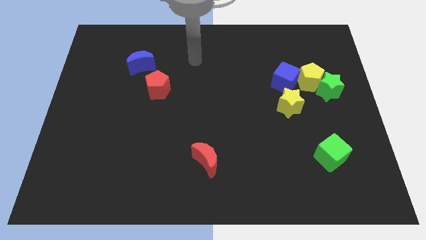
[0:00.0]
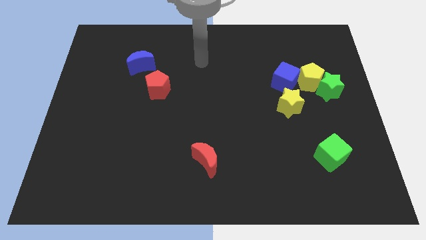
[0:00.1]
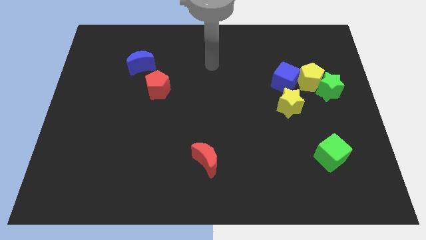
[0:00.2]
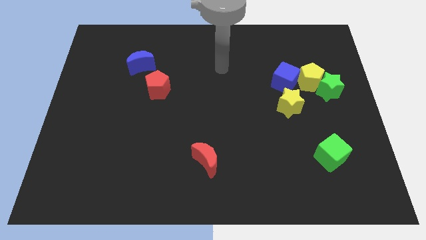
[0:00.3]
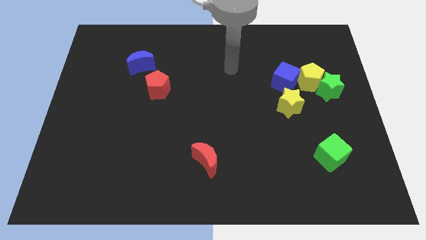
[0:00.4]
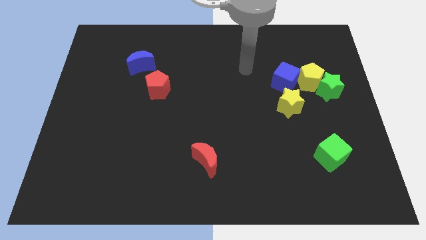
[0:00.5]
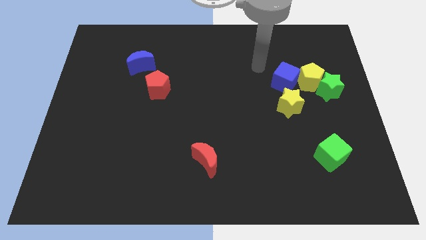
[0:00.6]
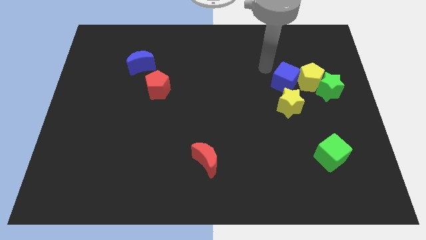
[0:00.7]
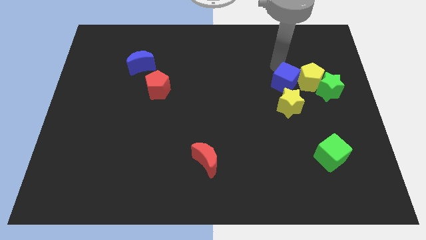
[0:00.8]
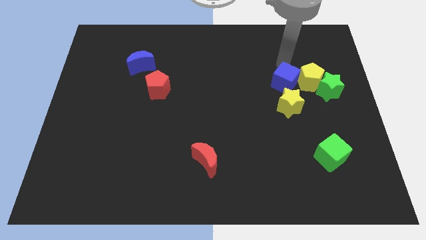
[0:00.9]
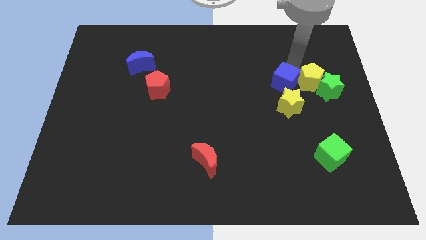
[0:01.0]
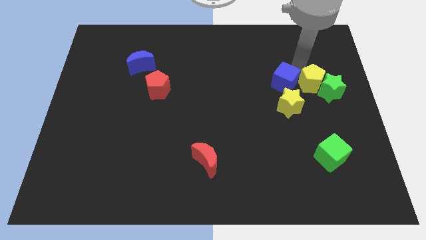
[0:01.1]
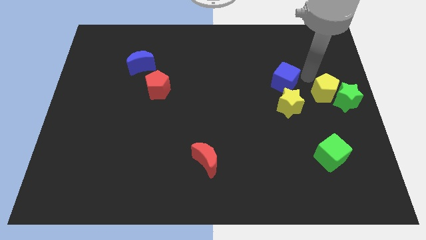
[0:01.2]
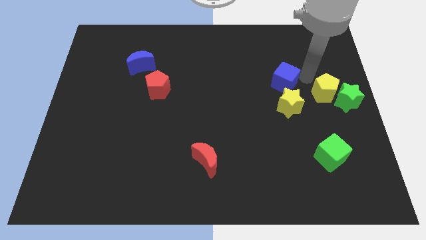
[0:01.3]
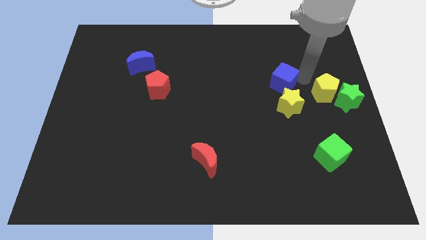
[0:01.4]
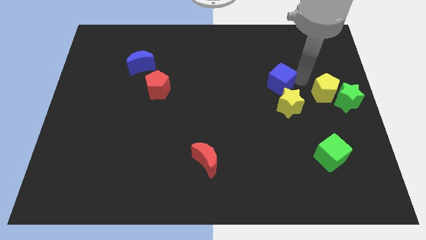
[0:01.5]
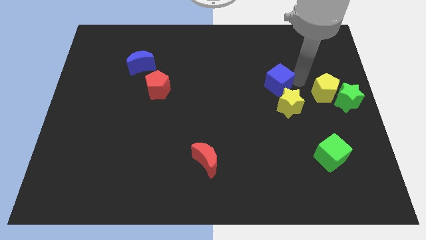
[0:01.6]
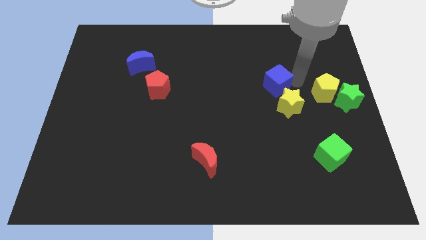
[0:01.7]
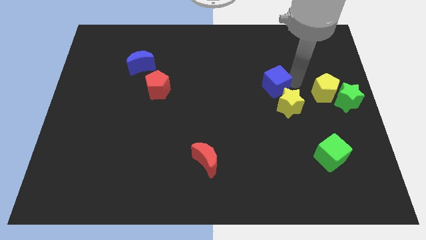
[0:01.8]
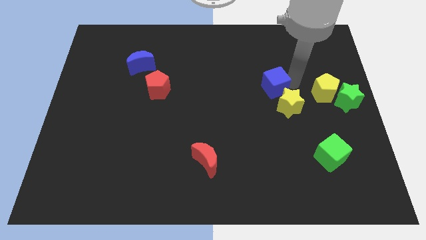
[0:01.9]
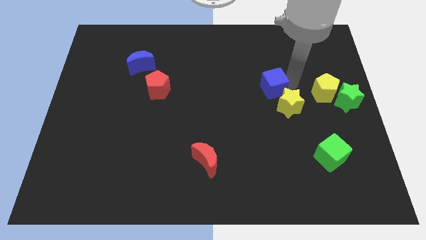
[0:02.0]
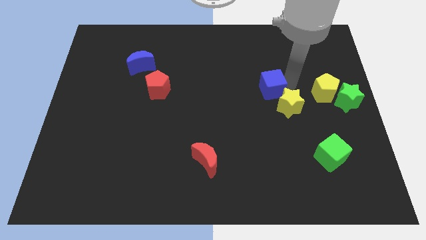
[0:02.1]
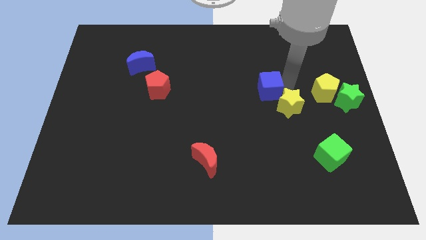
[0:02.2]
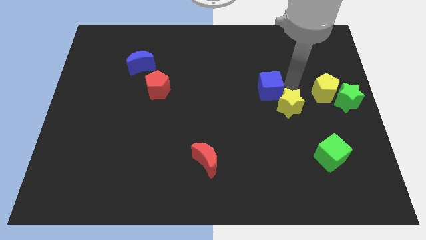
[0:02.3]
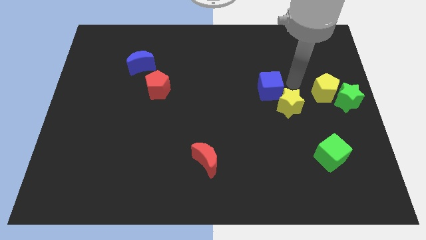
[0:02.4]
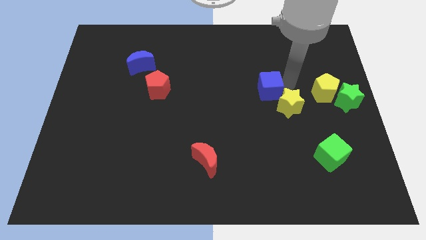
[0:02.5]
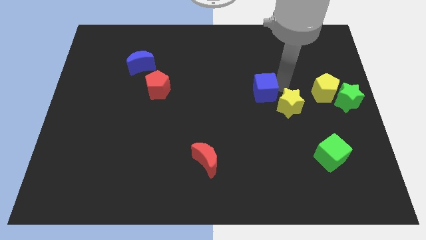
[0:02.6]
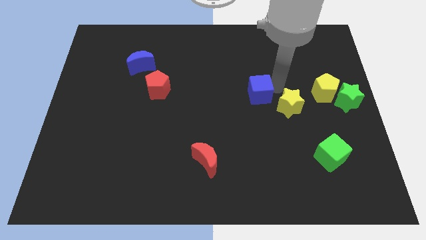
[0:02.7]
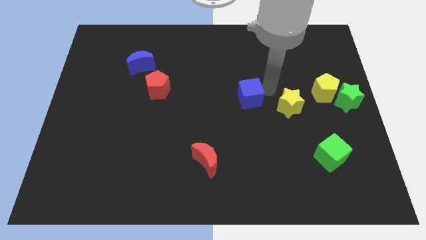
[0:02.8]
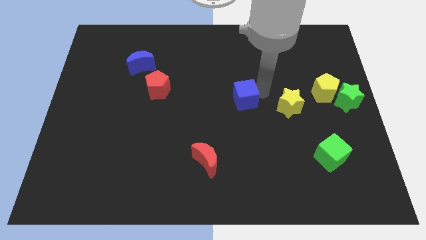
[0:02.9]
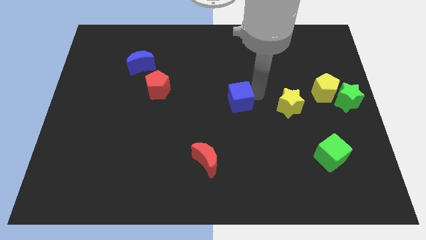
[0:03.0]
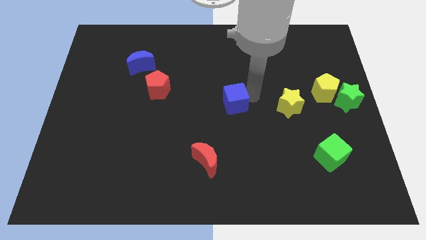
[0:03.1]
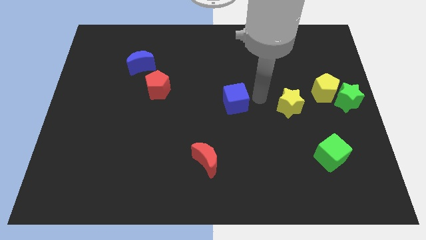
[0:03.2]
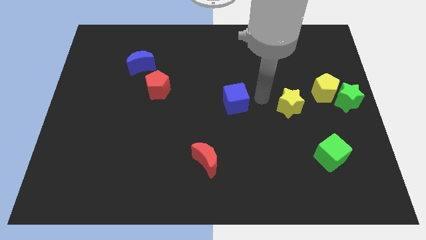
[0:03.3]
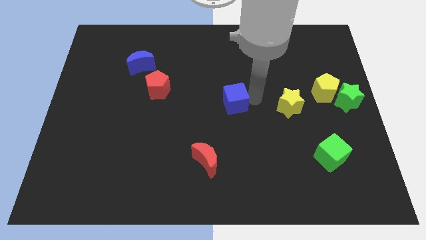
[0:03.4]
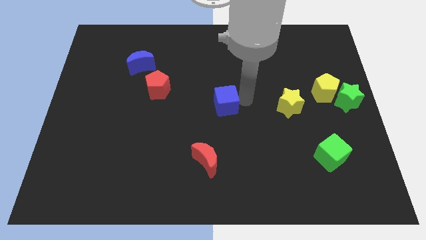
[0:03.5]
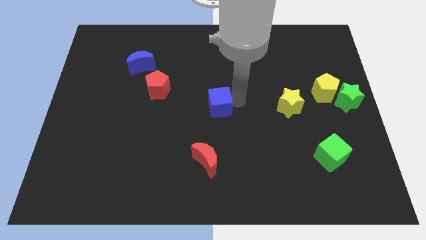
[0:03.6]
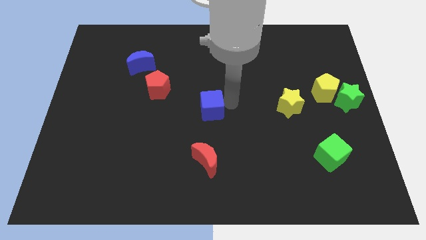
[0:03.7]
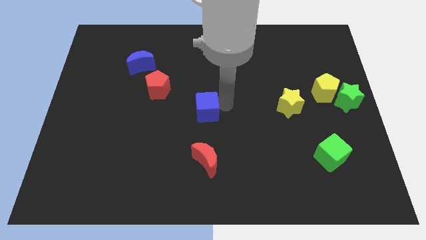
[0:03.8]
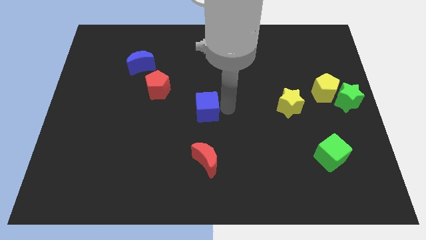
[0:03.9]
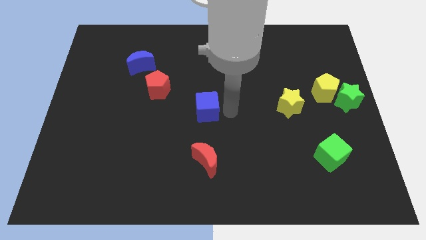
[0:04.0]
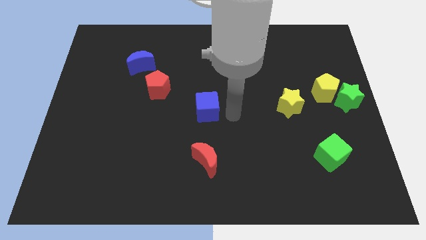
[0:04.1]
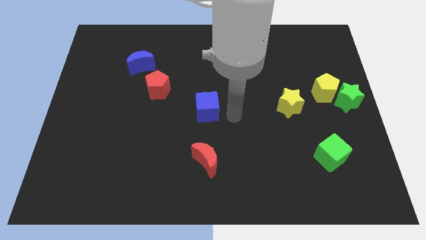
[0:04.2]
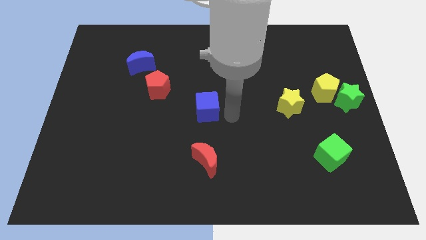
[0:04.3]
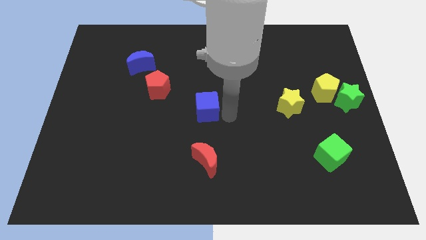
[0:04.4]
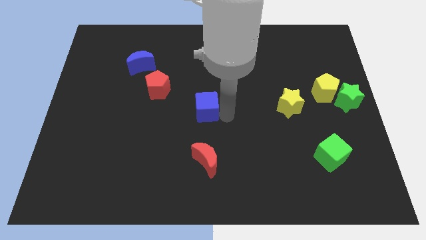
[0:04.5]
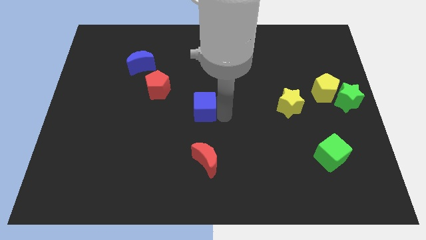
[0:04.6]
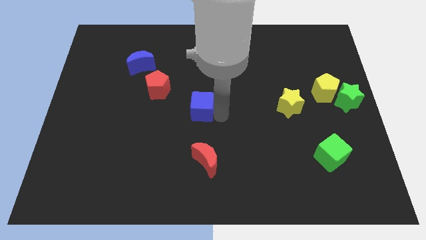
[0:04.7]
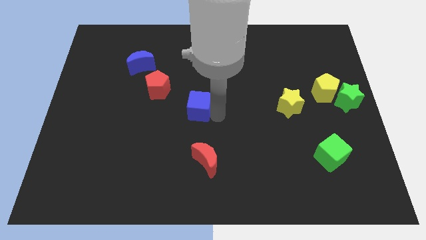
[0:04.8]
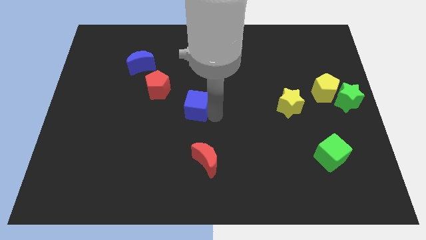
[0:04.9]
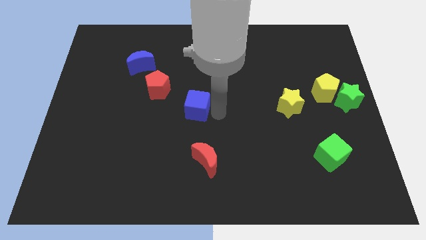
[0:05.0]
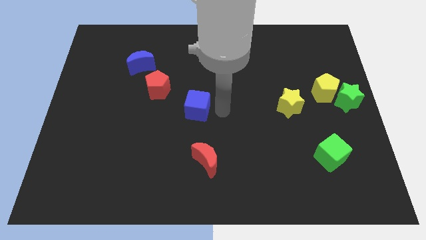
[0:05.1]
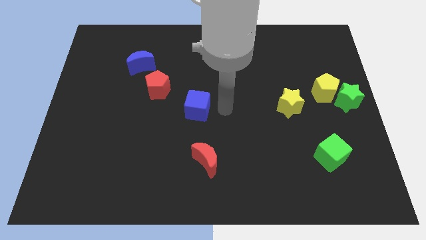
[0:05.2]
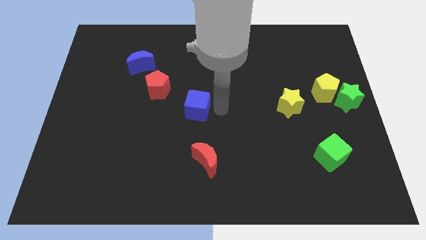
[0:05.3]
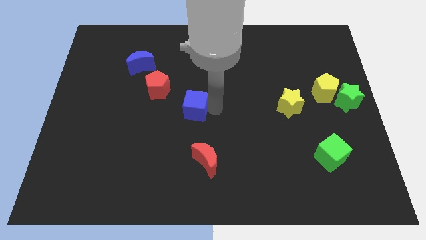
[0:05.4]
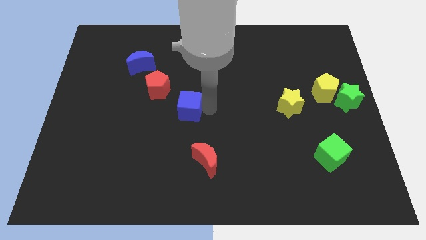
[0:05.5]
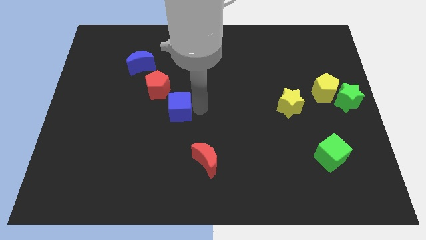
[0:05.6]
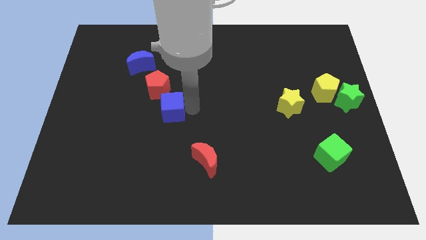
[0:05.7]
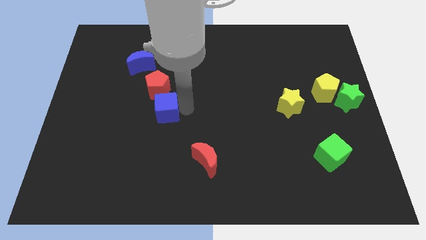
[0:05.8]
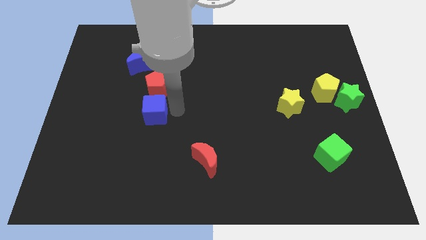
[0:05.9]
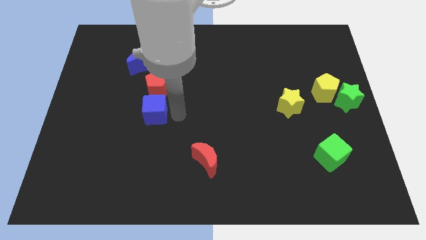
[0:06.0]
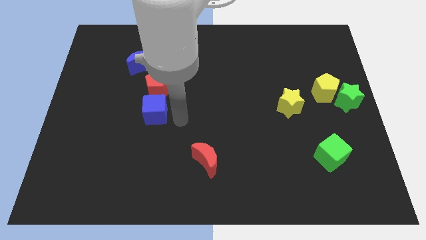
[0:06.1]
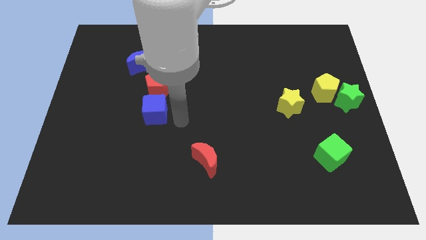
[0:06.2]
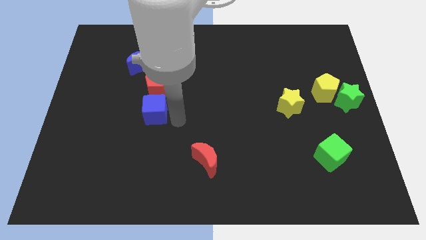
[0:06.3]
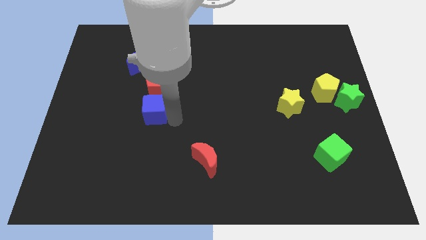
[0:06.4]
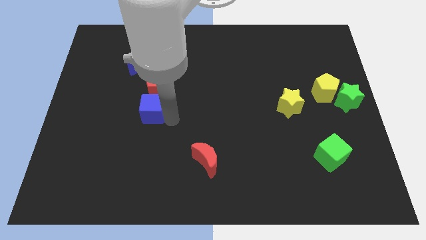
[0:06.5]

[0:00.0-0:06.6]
push the blue cube to the bottom left of the red pentagon
